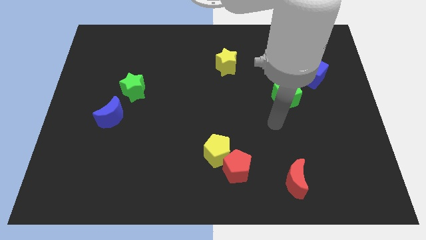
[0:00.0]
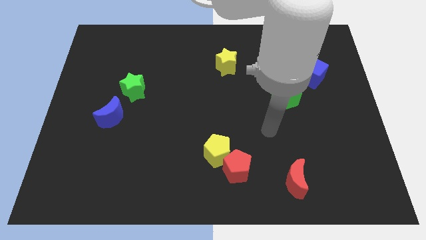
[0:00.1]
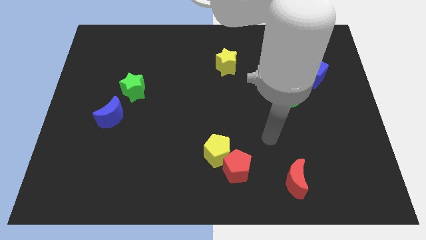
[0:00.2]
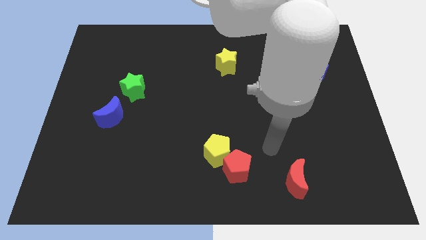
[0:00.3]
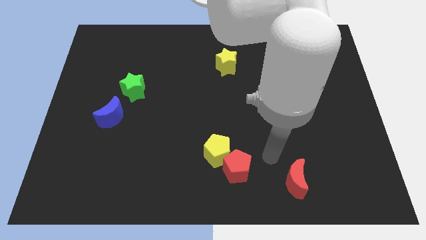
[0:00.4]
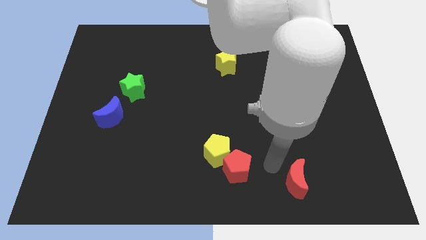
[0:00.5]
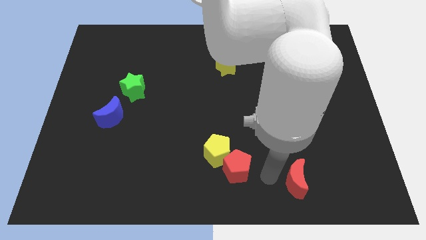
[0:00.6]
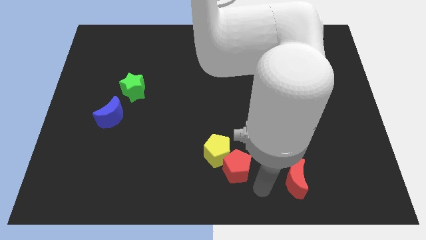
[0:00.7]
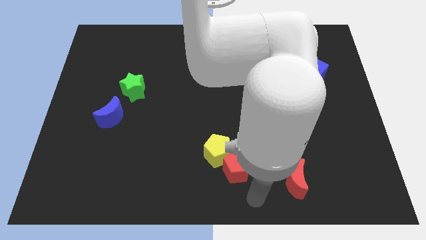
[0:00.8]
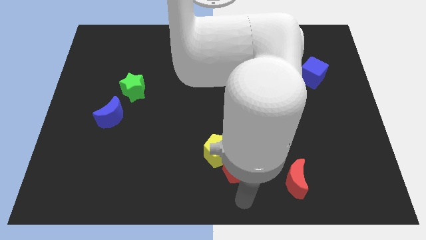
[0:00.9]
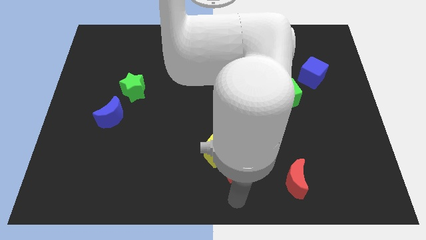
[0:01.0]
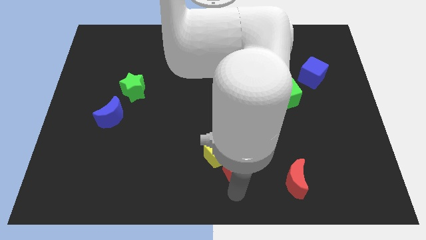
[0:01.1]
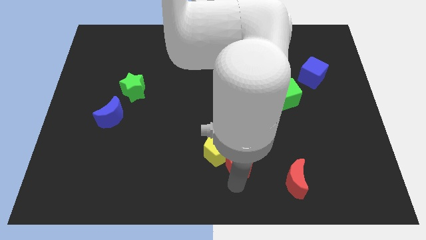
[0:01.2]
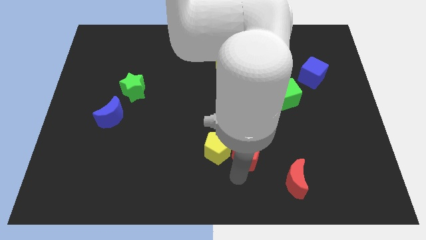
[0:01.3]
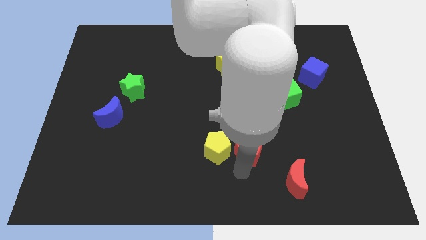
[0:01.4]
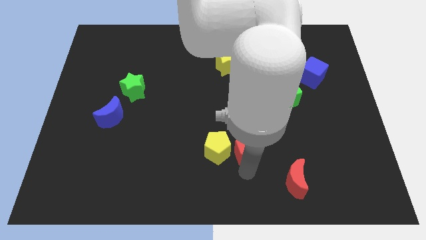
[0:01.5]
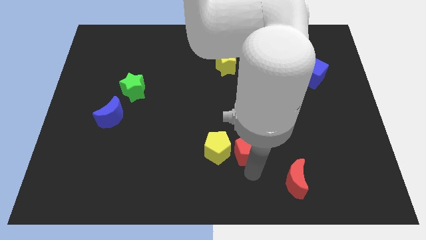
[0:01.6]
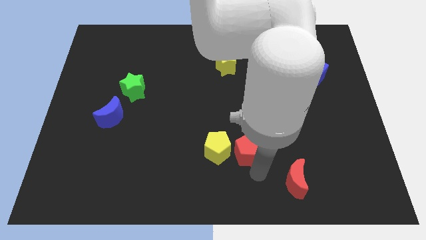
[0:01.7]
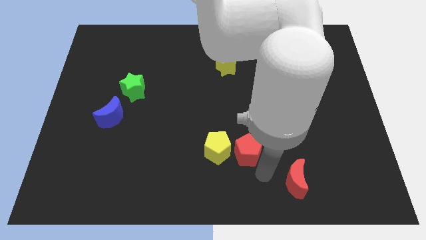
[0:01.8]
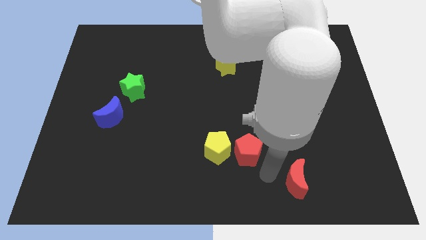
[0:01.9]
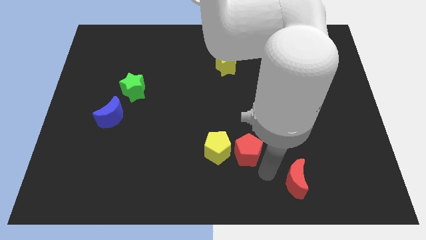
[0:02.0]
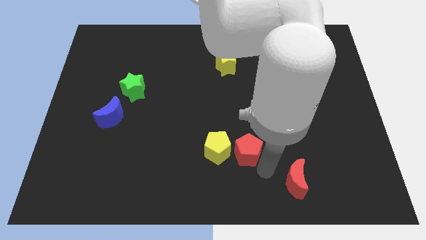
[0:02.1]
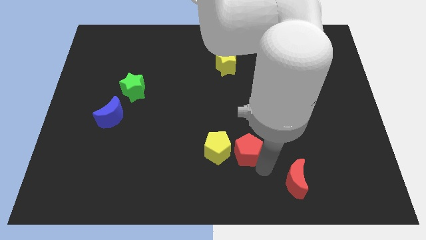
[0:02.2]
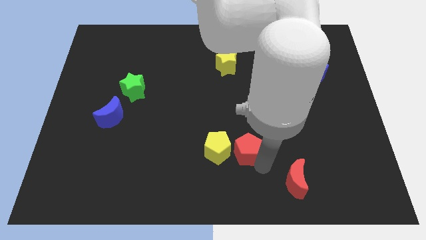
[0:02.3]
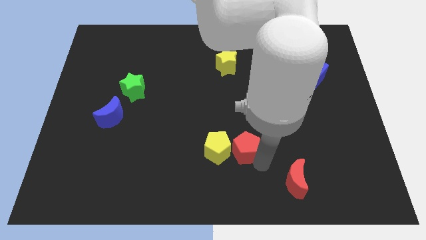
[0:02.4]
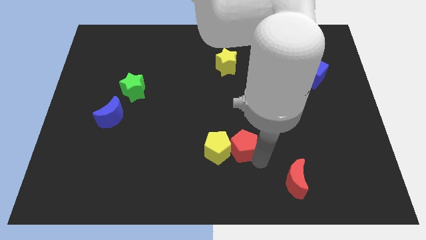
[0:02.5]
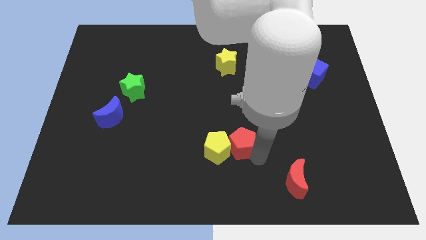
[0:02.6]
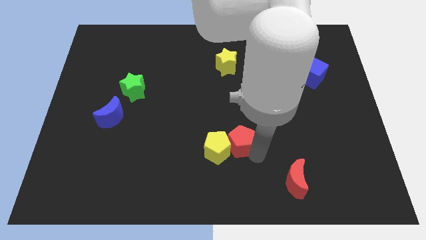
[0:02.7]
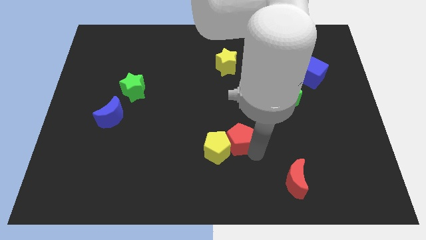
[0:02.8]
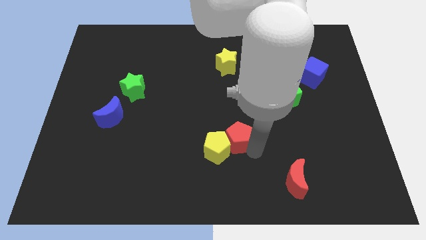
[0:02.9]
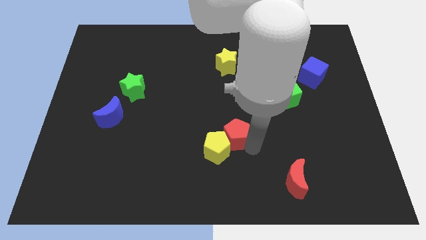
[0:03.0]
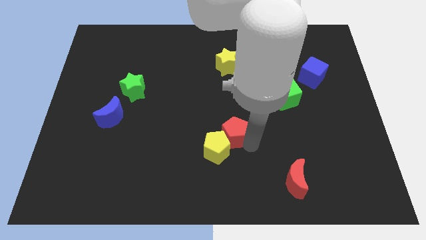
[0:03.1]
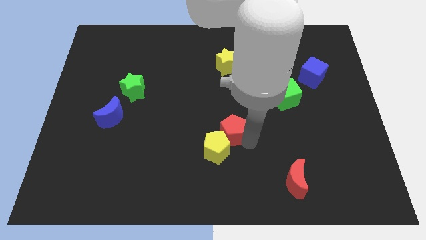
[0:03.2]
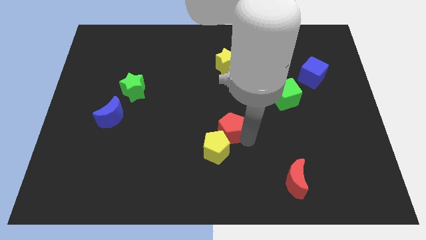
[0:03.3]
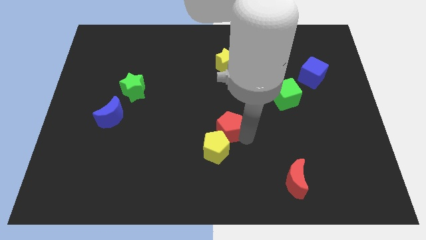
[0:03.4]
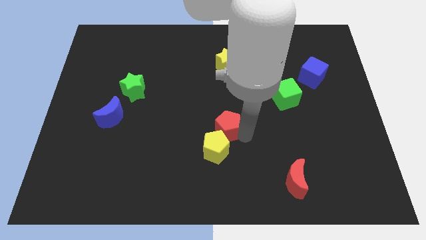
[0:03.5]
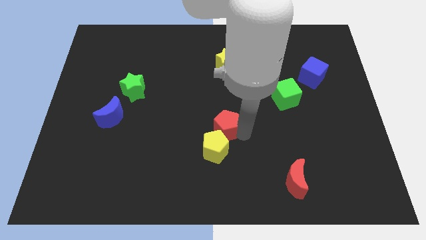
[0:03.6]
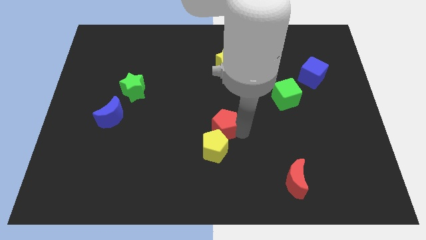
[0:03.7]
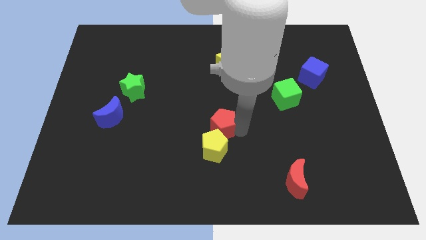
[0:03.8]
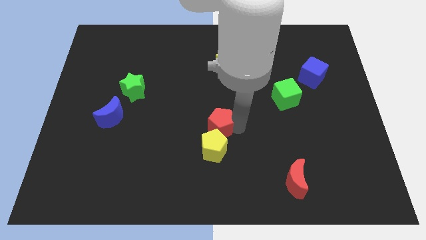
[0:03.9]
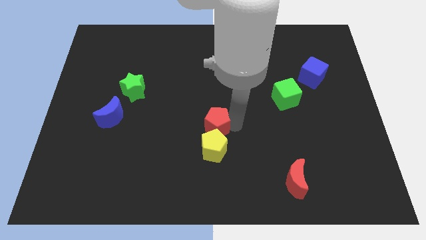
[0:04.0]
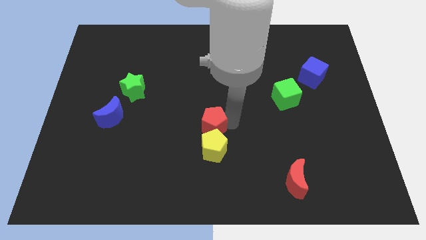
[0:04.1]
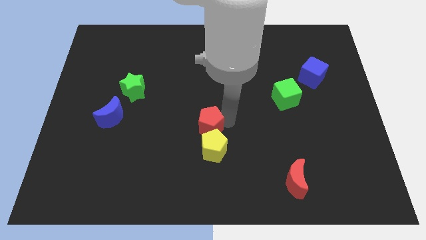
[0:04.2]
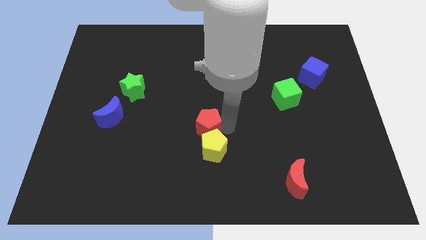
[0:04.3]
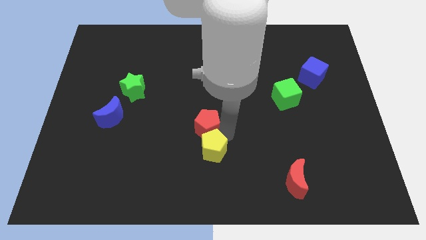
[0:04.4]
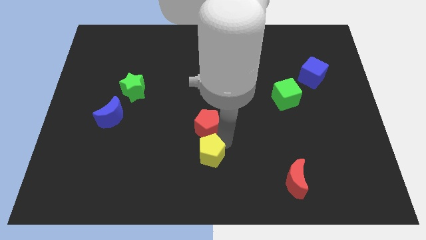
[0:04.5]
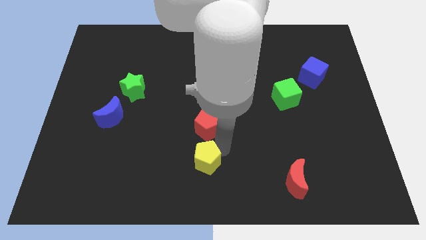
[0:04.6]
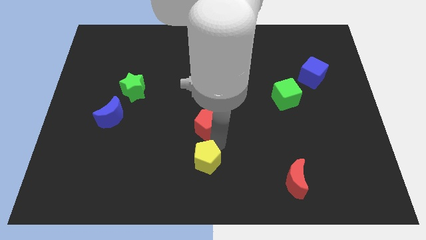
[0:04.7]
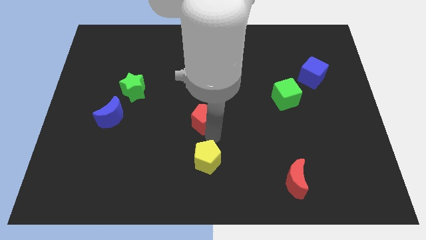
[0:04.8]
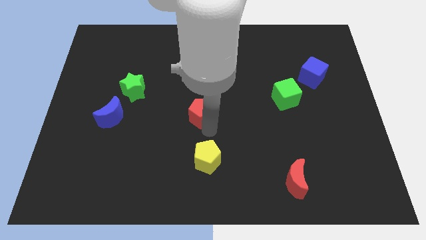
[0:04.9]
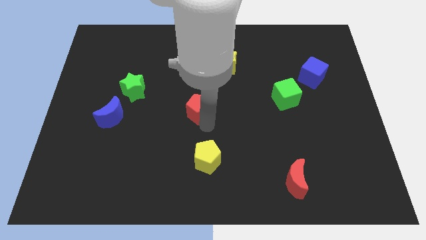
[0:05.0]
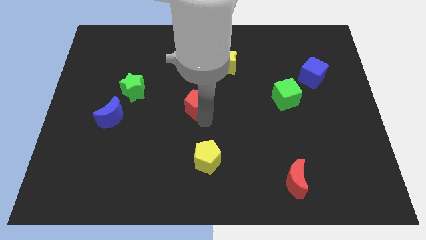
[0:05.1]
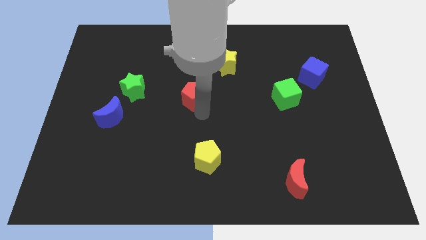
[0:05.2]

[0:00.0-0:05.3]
slide the red pentagon to the right of the green star

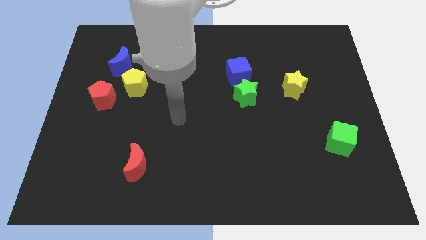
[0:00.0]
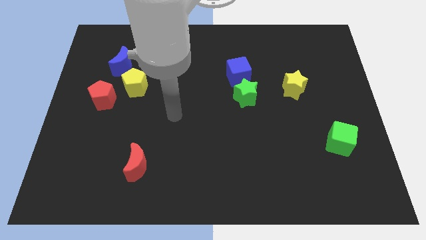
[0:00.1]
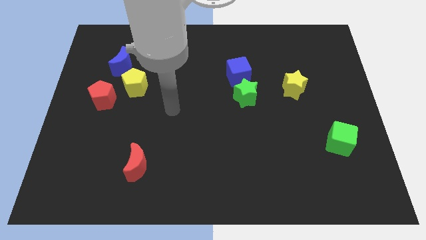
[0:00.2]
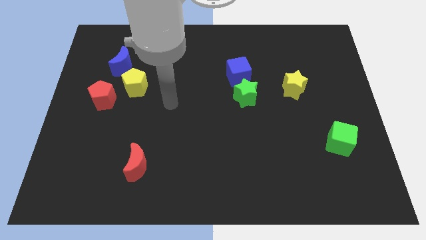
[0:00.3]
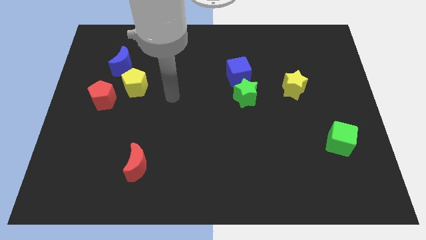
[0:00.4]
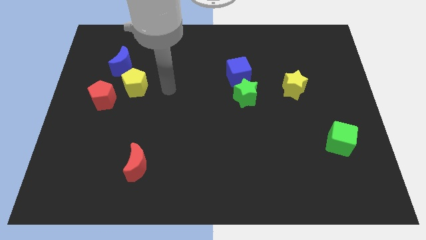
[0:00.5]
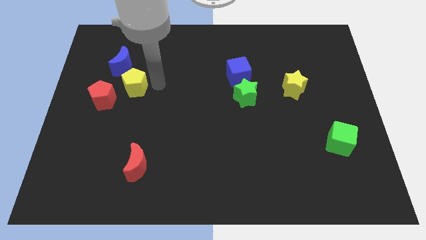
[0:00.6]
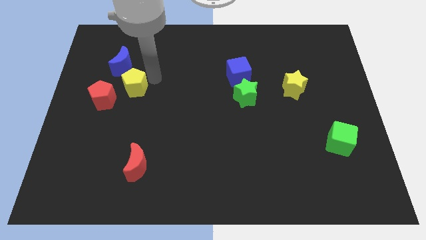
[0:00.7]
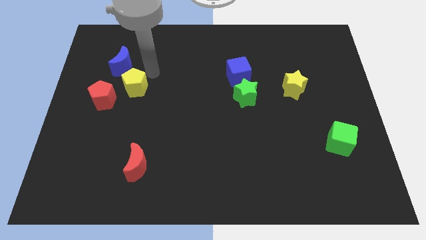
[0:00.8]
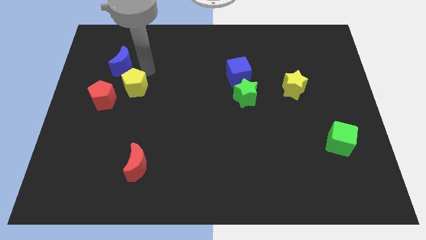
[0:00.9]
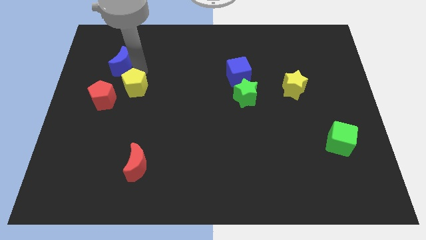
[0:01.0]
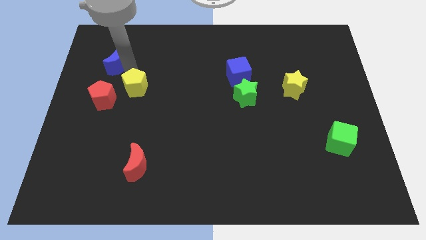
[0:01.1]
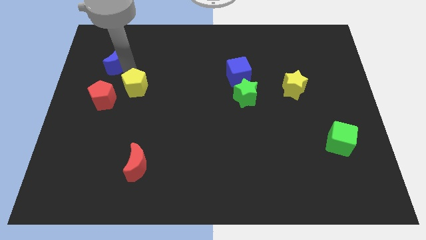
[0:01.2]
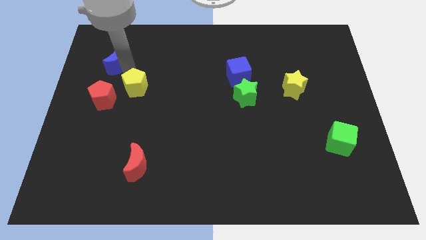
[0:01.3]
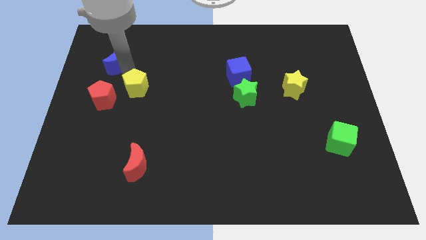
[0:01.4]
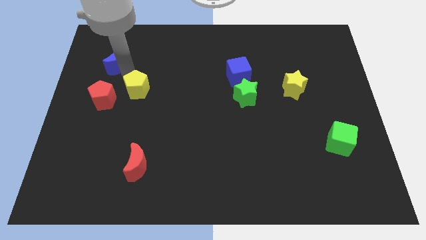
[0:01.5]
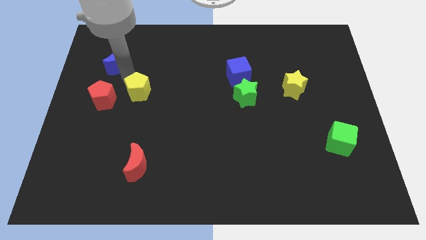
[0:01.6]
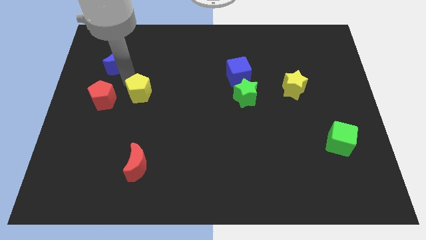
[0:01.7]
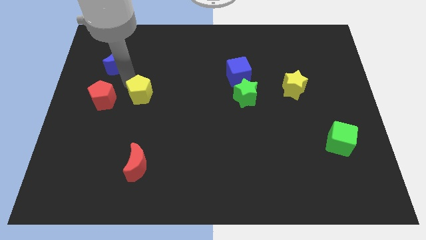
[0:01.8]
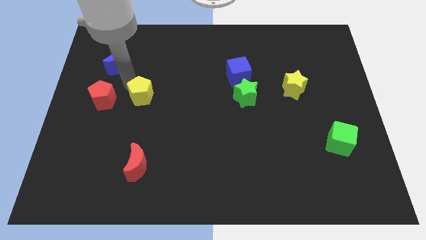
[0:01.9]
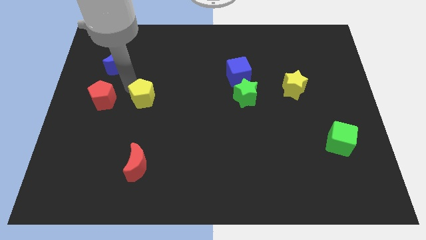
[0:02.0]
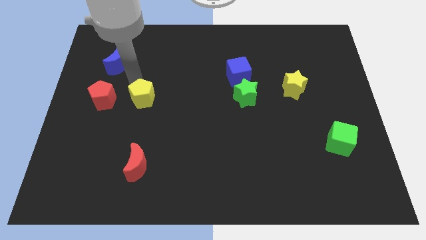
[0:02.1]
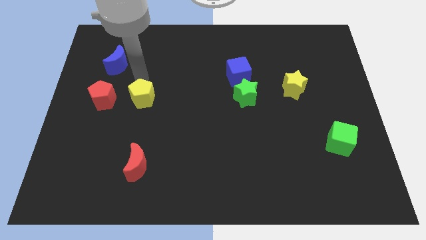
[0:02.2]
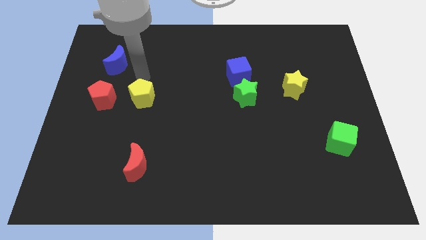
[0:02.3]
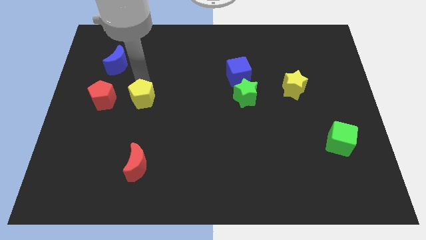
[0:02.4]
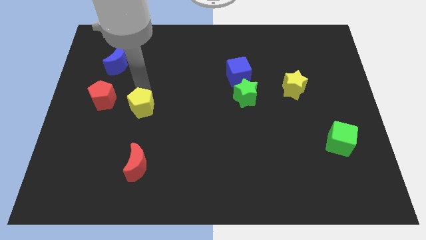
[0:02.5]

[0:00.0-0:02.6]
put the yellow pentagon above the red moon
